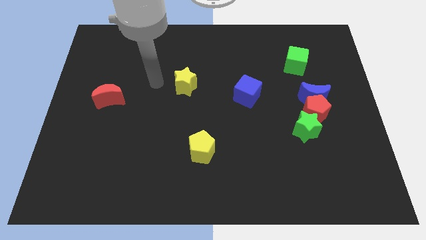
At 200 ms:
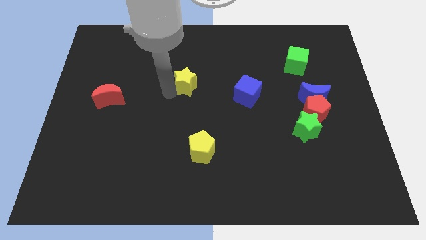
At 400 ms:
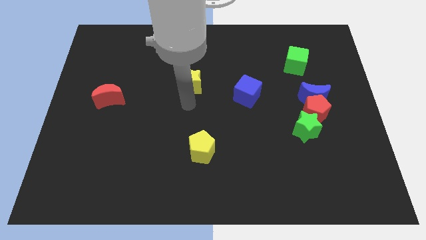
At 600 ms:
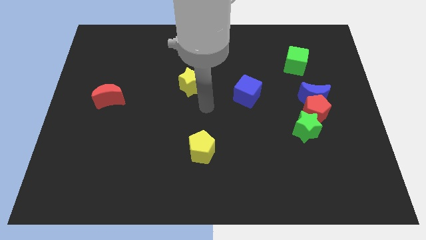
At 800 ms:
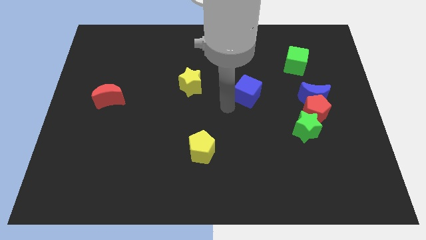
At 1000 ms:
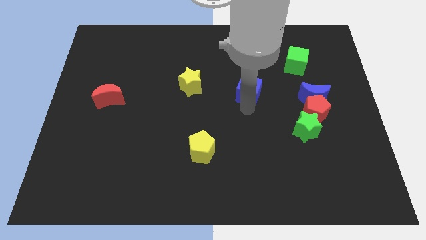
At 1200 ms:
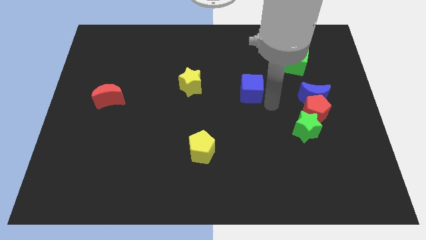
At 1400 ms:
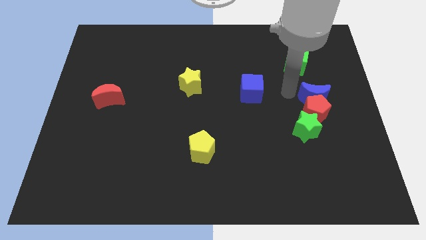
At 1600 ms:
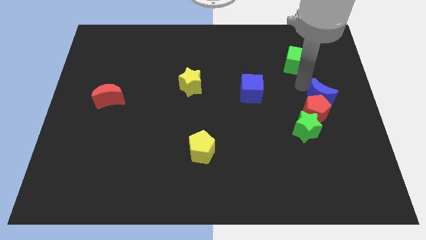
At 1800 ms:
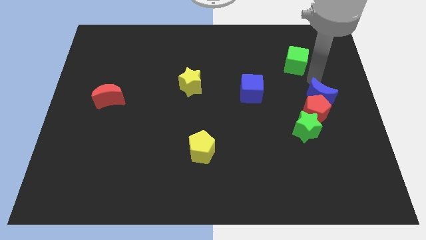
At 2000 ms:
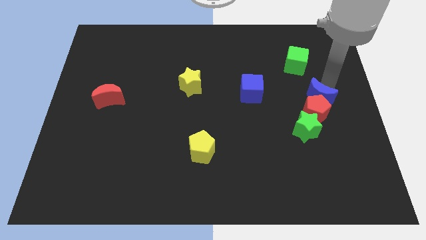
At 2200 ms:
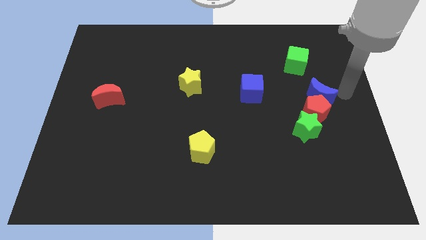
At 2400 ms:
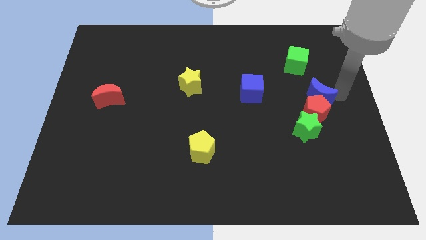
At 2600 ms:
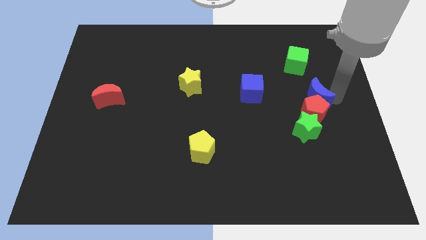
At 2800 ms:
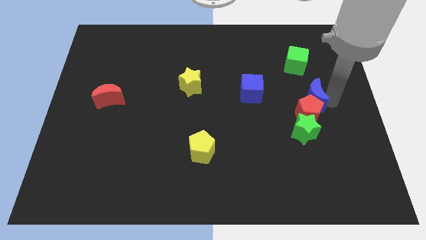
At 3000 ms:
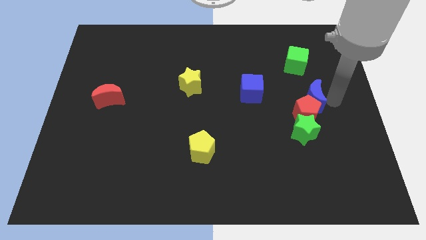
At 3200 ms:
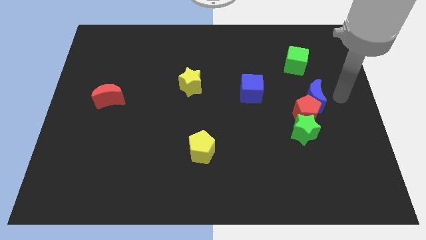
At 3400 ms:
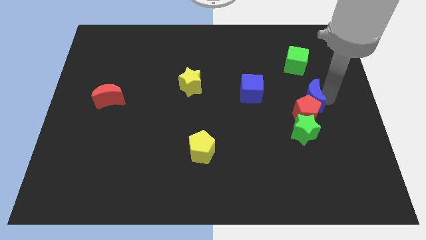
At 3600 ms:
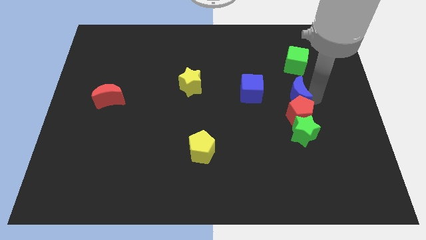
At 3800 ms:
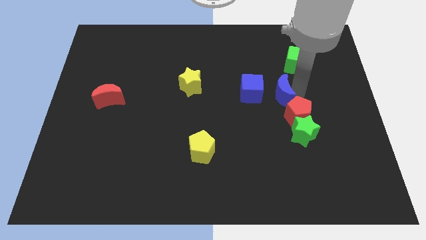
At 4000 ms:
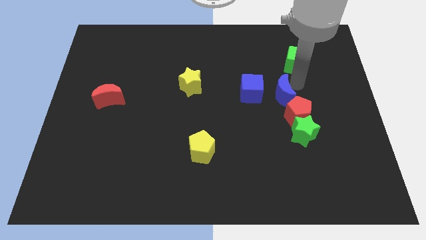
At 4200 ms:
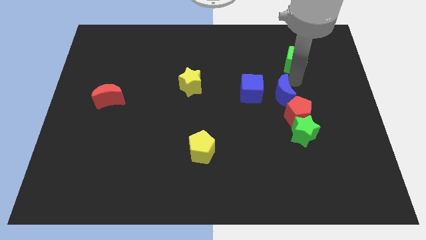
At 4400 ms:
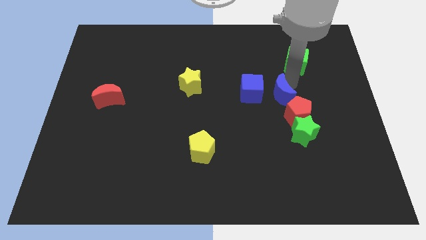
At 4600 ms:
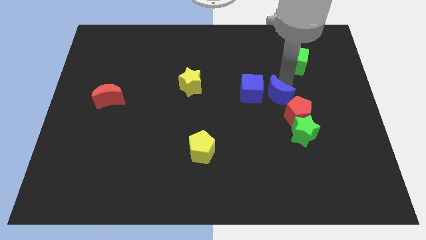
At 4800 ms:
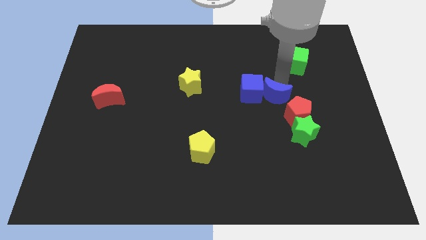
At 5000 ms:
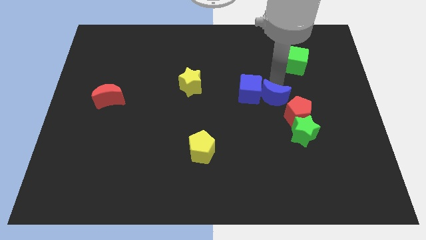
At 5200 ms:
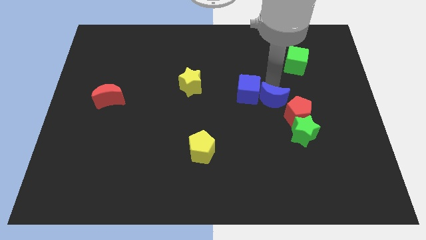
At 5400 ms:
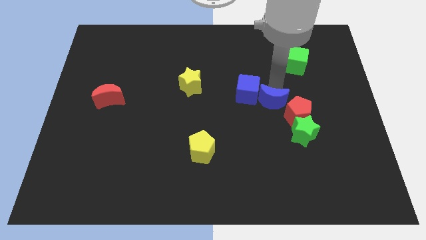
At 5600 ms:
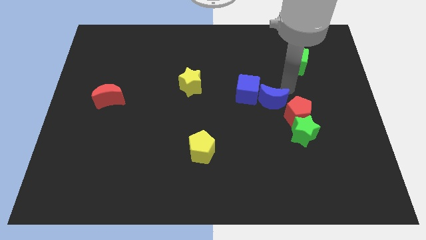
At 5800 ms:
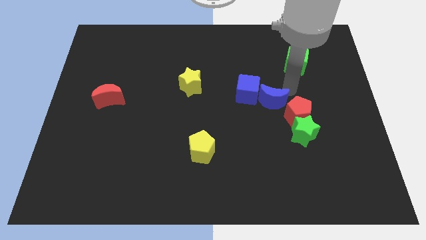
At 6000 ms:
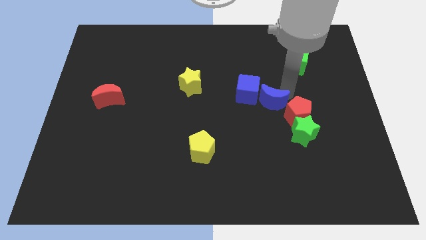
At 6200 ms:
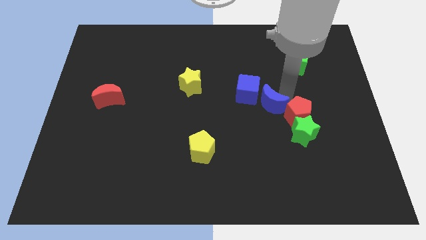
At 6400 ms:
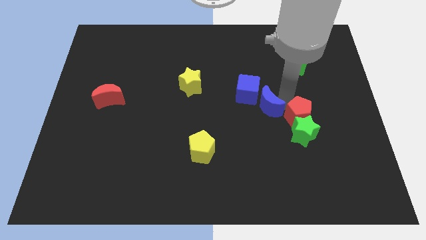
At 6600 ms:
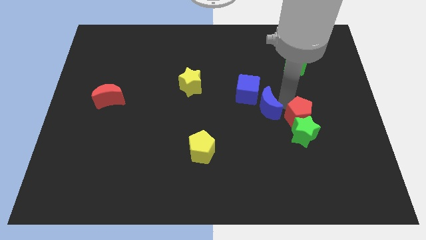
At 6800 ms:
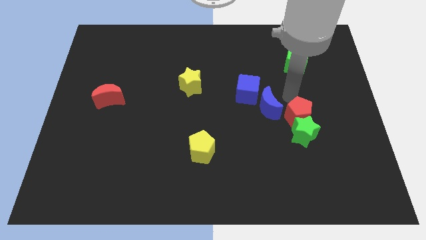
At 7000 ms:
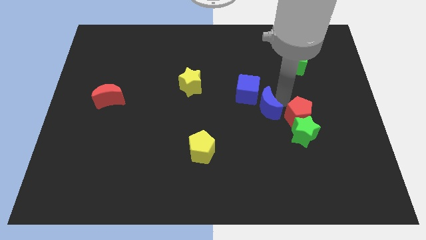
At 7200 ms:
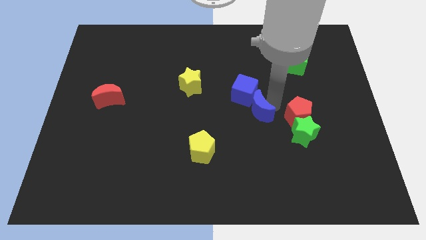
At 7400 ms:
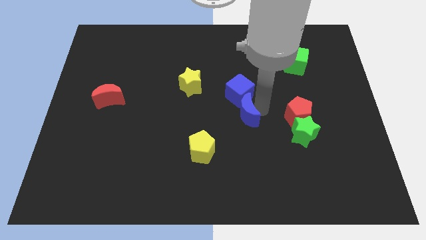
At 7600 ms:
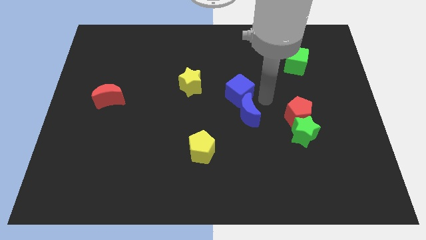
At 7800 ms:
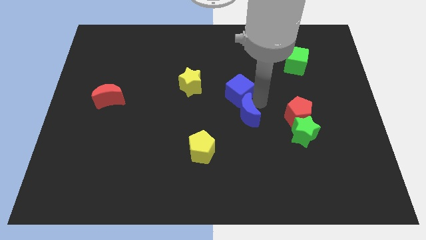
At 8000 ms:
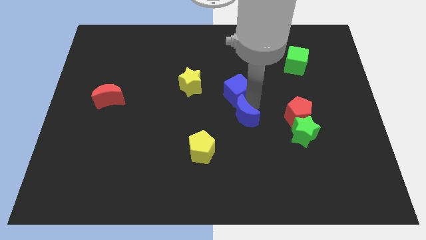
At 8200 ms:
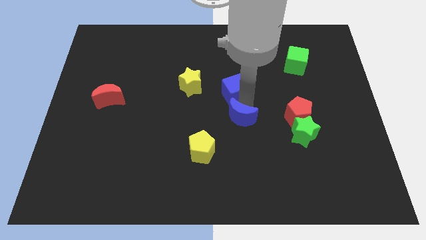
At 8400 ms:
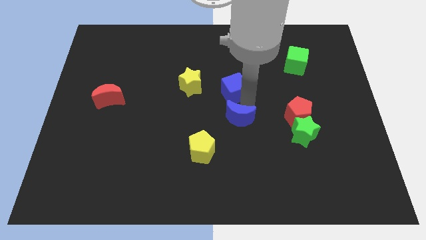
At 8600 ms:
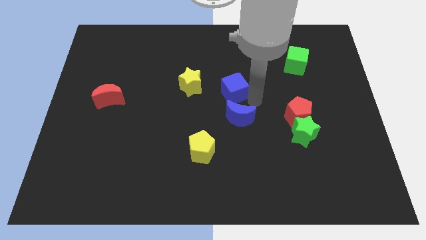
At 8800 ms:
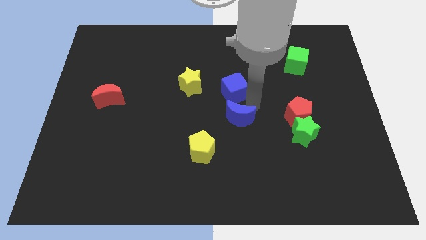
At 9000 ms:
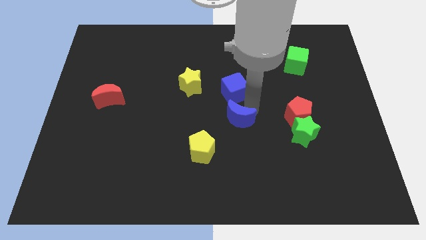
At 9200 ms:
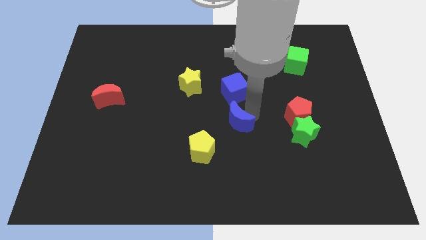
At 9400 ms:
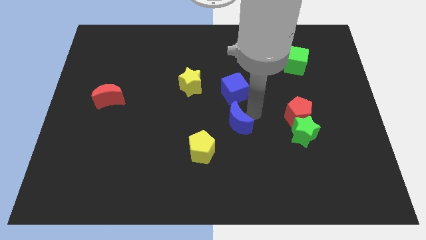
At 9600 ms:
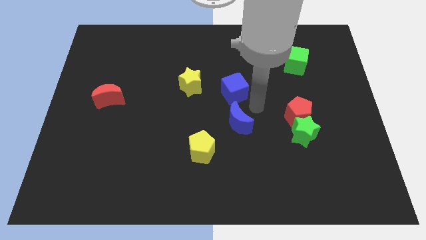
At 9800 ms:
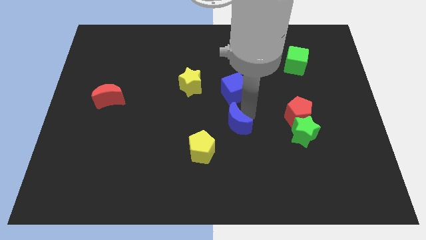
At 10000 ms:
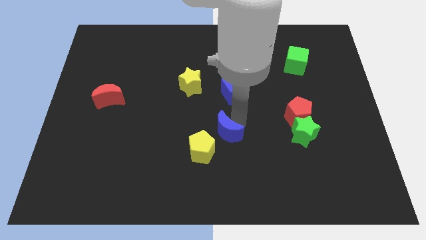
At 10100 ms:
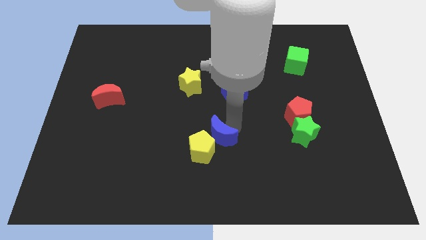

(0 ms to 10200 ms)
slide the blue moon towards the yellow pentagon

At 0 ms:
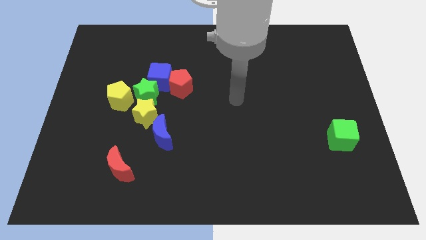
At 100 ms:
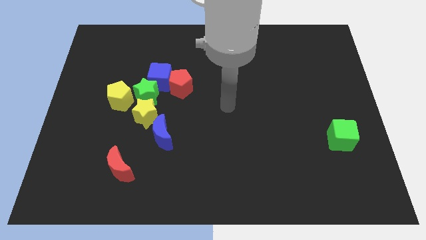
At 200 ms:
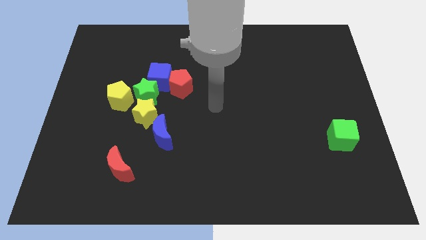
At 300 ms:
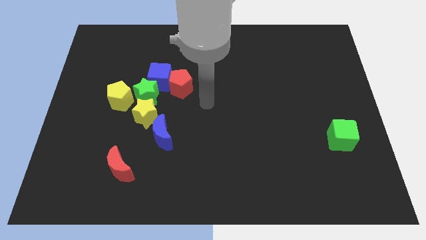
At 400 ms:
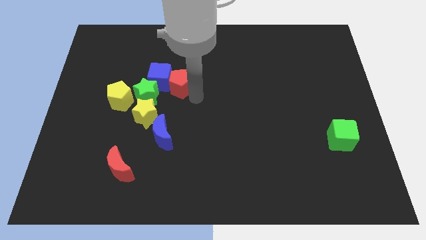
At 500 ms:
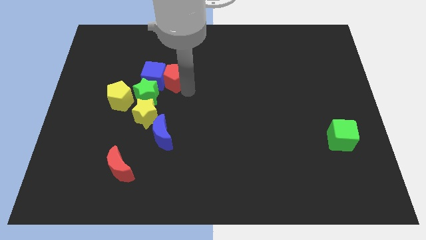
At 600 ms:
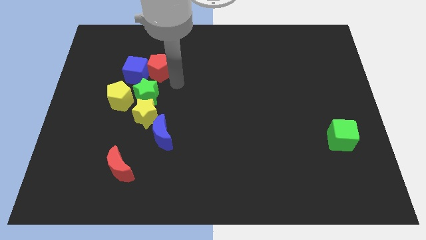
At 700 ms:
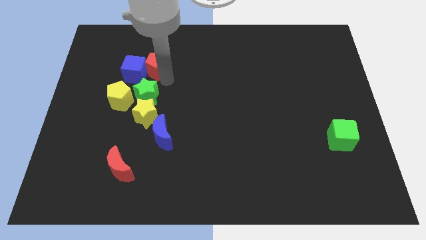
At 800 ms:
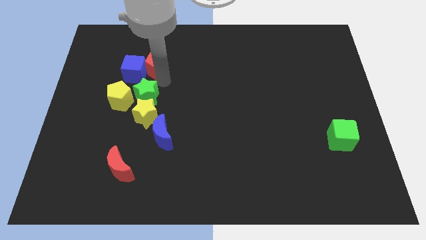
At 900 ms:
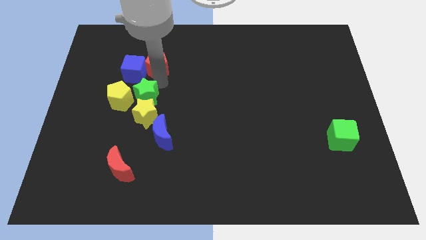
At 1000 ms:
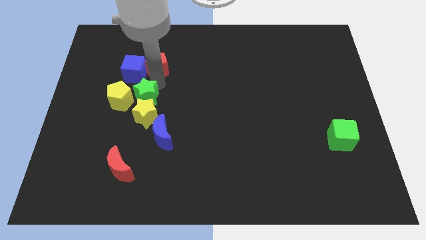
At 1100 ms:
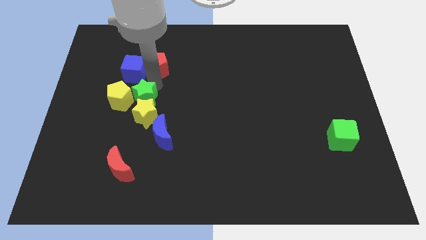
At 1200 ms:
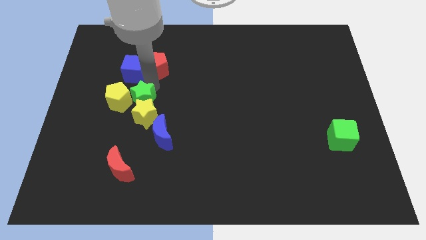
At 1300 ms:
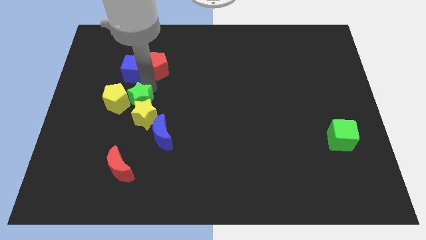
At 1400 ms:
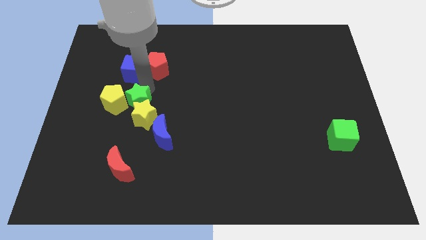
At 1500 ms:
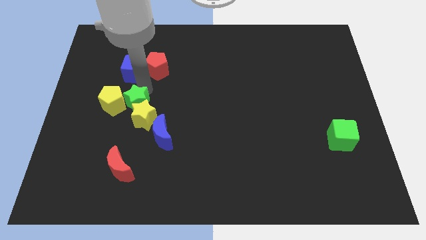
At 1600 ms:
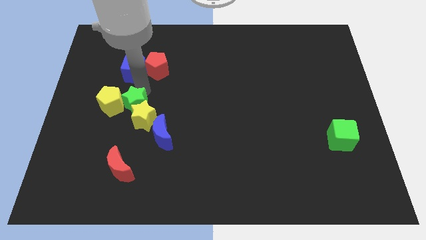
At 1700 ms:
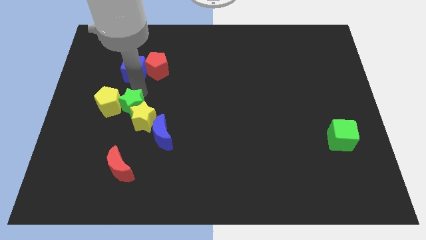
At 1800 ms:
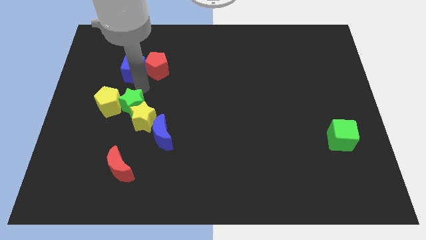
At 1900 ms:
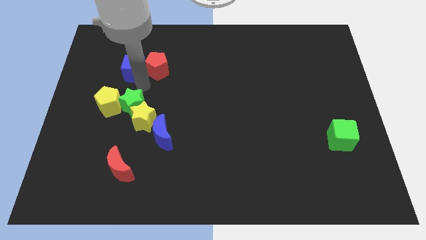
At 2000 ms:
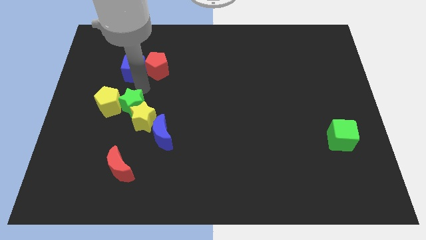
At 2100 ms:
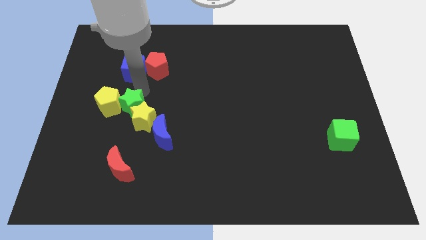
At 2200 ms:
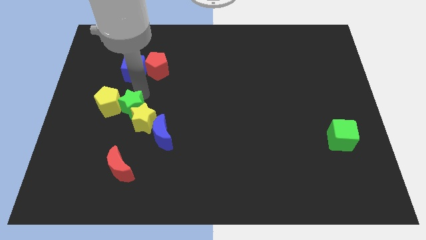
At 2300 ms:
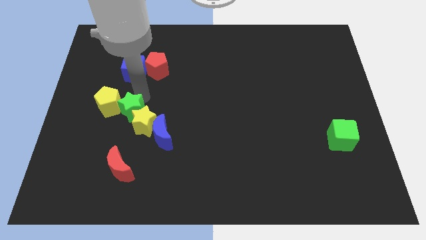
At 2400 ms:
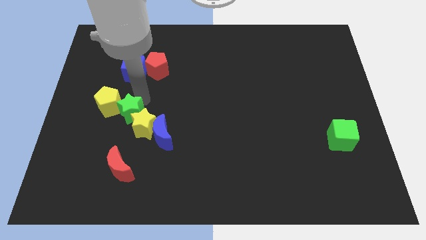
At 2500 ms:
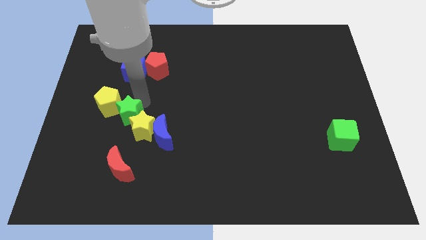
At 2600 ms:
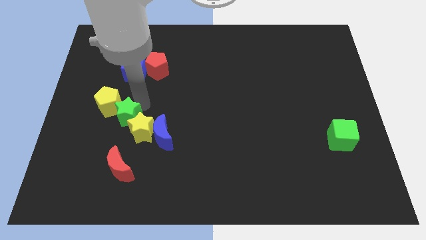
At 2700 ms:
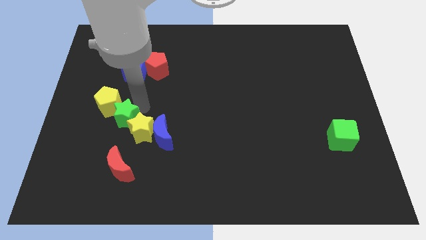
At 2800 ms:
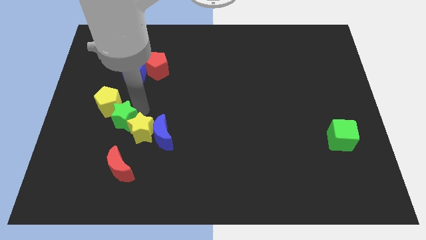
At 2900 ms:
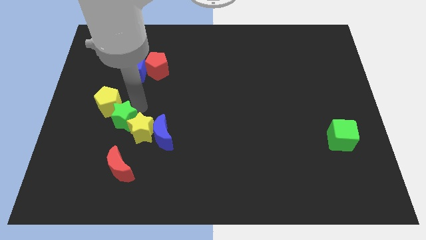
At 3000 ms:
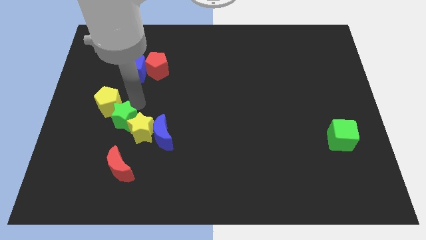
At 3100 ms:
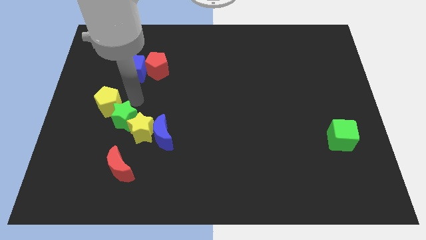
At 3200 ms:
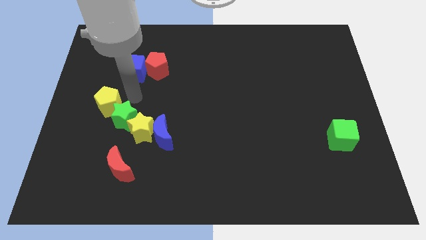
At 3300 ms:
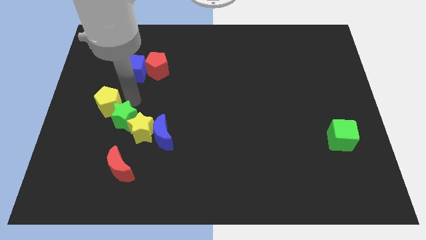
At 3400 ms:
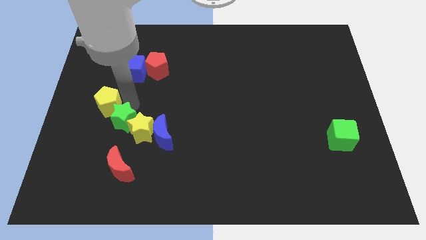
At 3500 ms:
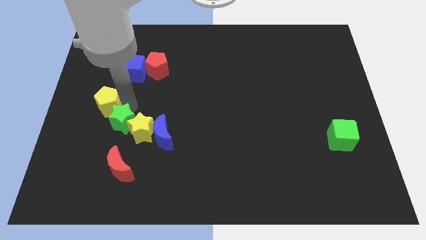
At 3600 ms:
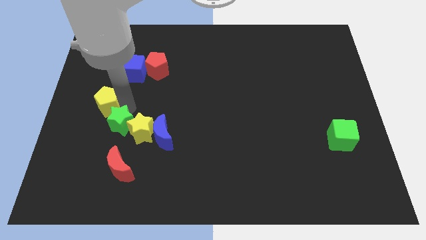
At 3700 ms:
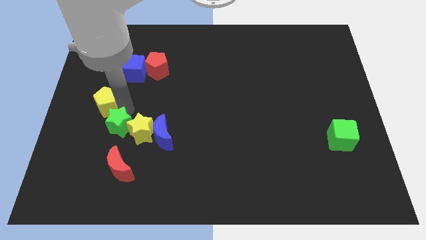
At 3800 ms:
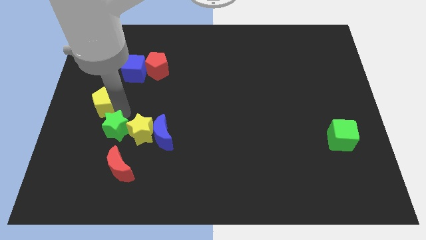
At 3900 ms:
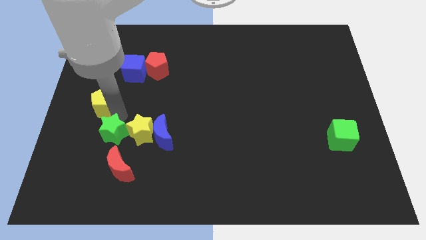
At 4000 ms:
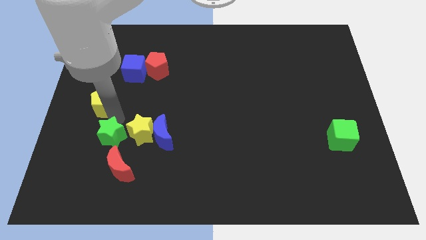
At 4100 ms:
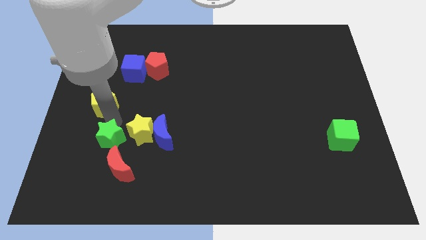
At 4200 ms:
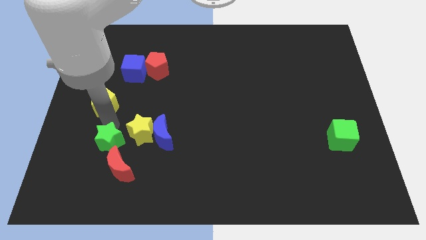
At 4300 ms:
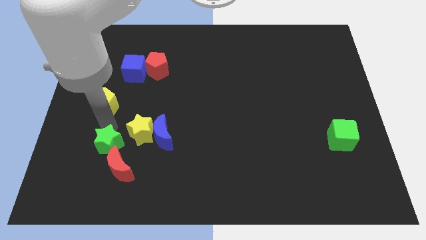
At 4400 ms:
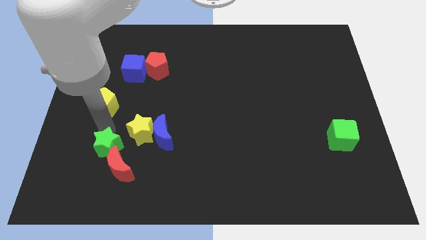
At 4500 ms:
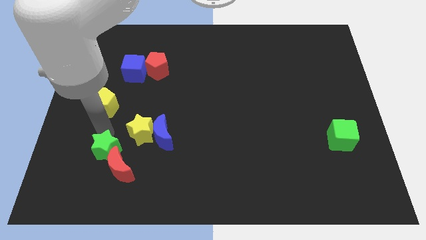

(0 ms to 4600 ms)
push the green star towards the red moon
